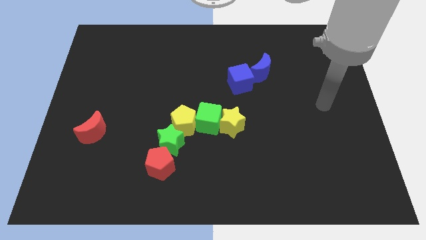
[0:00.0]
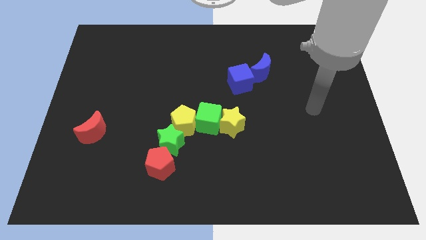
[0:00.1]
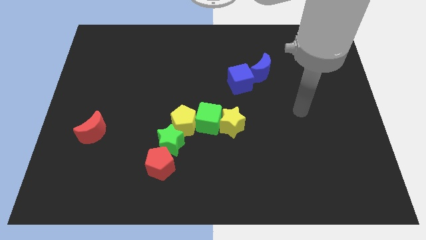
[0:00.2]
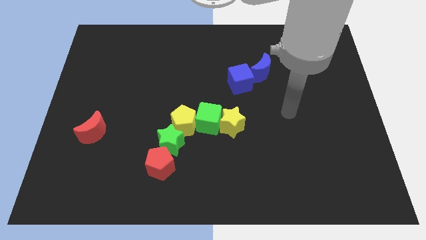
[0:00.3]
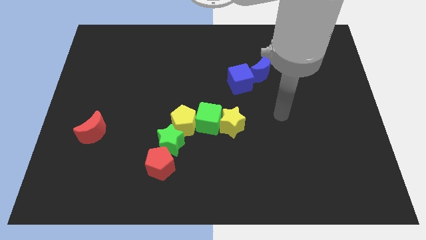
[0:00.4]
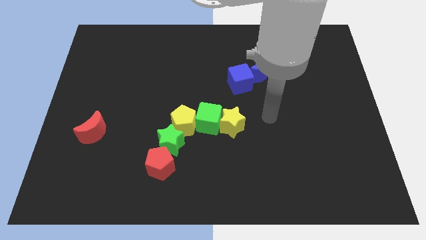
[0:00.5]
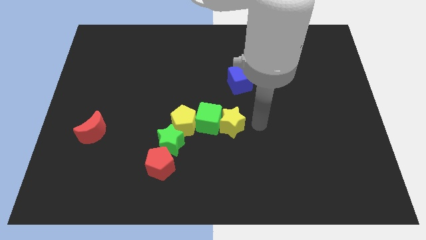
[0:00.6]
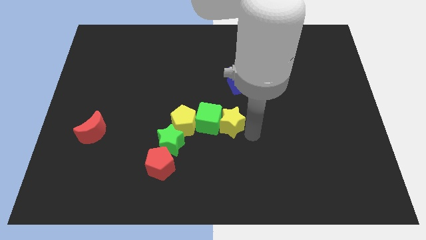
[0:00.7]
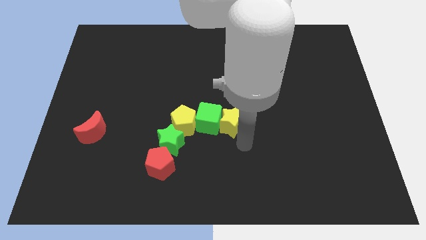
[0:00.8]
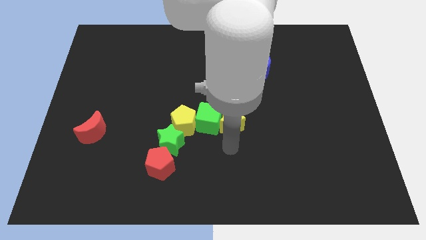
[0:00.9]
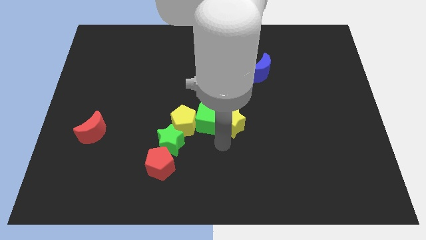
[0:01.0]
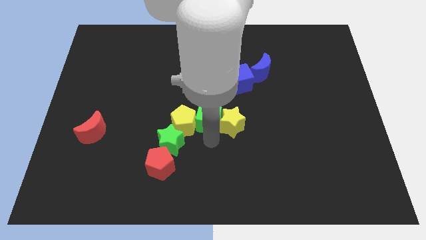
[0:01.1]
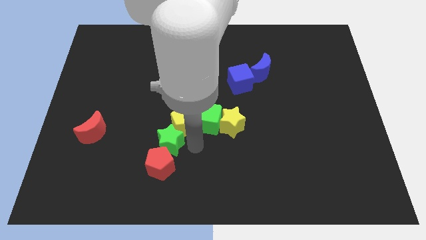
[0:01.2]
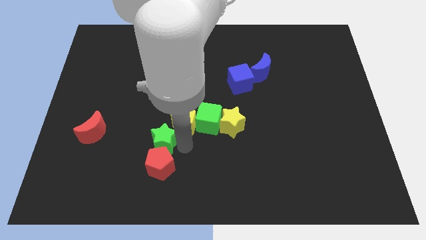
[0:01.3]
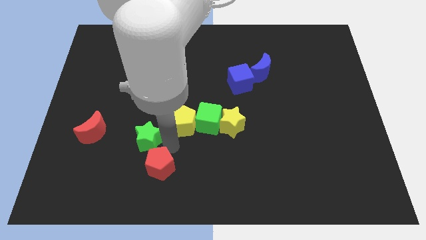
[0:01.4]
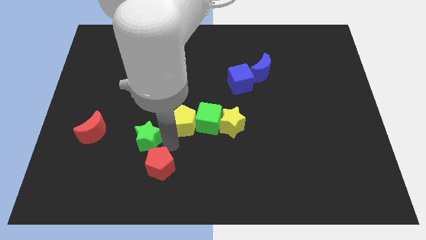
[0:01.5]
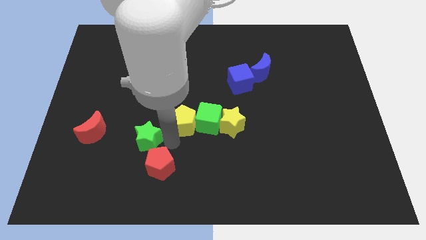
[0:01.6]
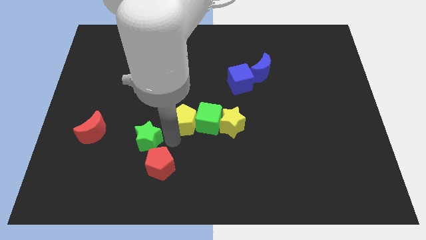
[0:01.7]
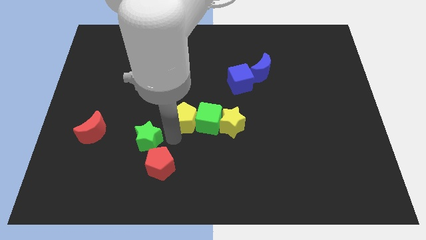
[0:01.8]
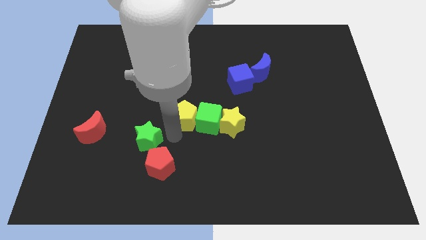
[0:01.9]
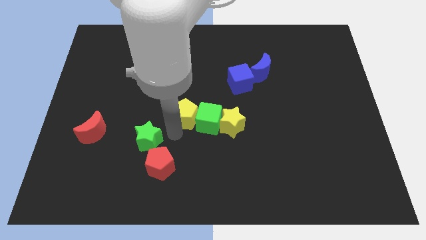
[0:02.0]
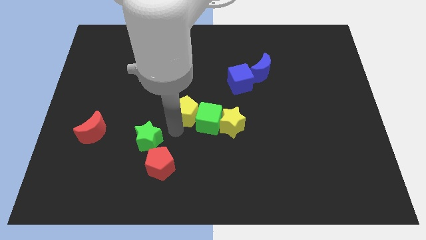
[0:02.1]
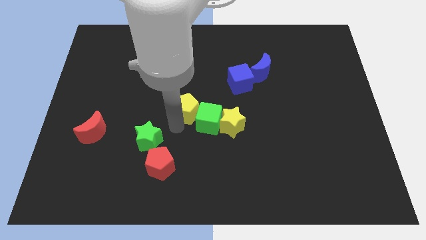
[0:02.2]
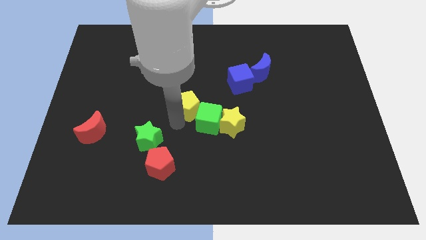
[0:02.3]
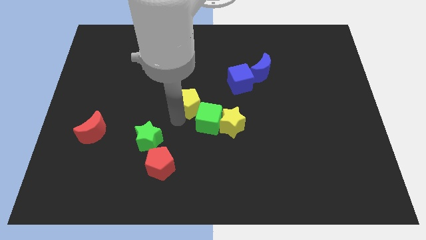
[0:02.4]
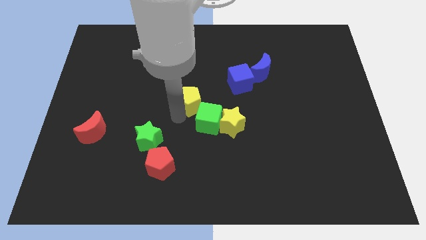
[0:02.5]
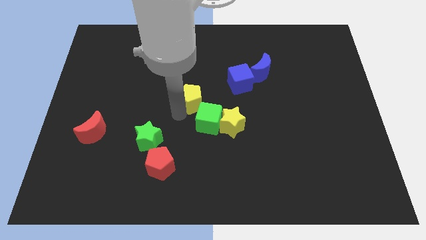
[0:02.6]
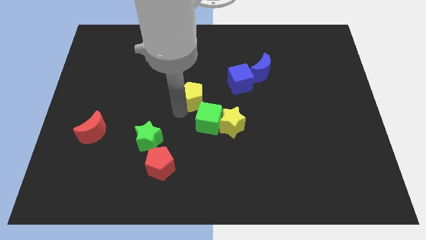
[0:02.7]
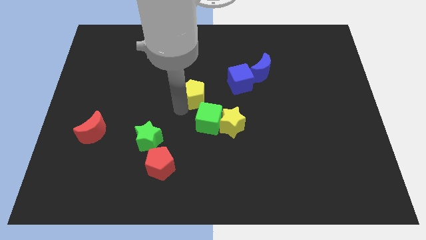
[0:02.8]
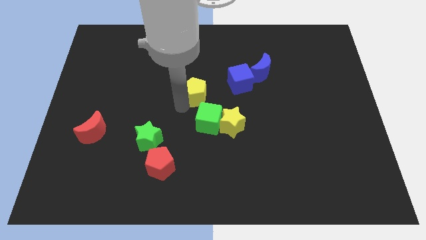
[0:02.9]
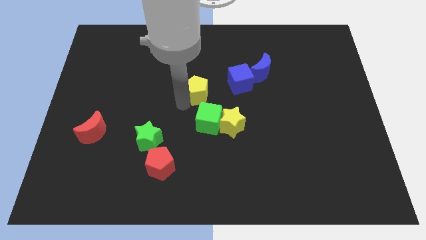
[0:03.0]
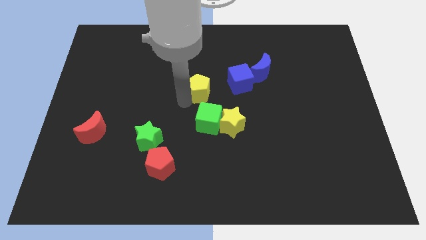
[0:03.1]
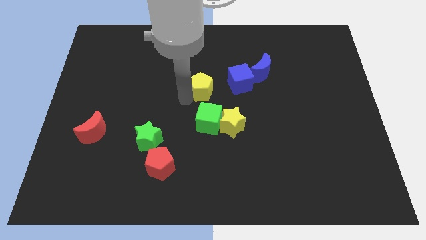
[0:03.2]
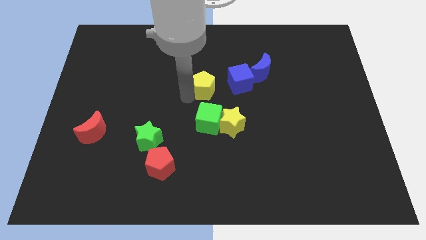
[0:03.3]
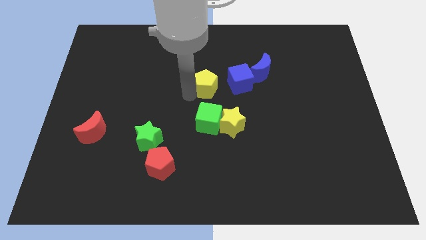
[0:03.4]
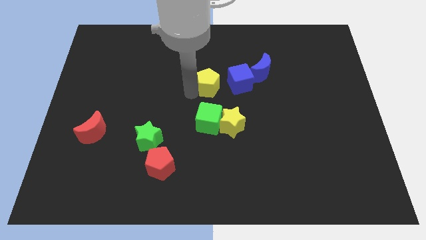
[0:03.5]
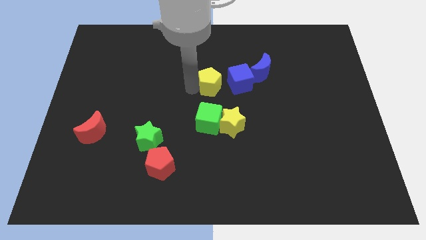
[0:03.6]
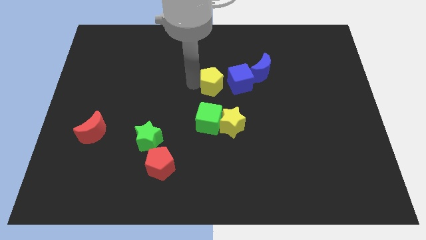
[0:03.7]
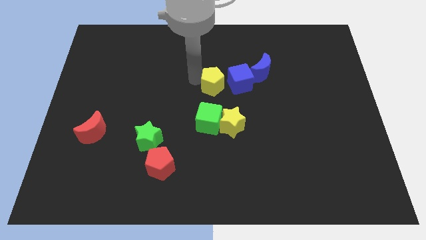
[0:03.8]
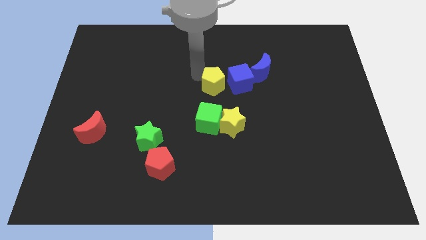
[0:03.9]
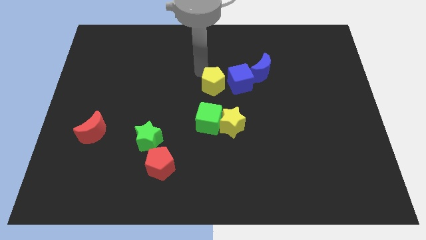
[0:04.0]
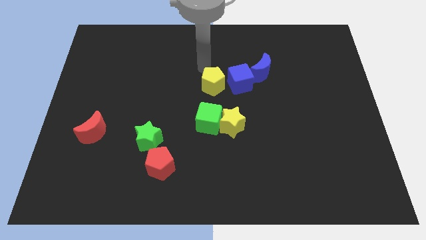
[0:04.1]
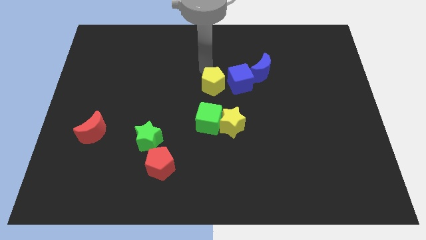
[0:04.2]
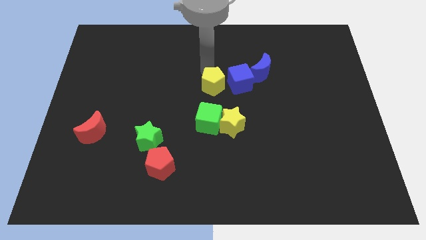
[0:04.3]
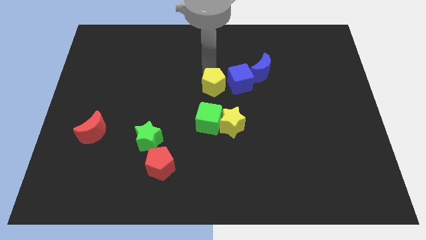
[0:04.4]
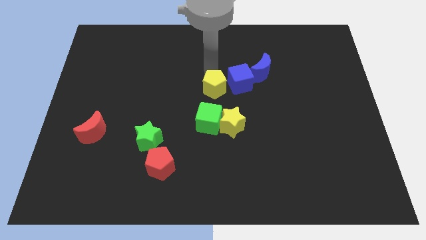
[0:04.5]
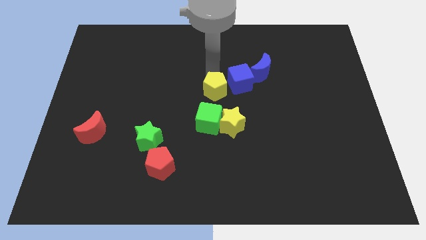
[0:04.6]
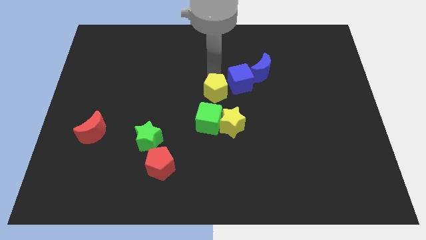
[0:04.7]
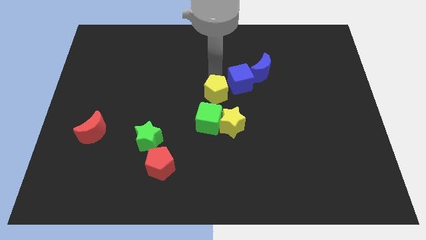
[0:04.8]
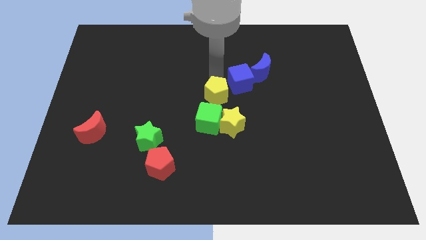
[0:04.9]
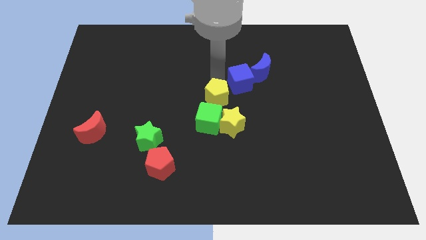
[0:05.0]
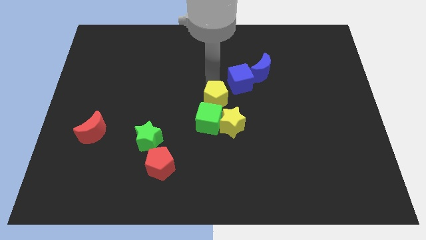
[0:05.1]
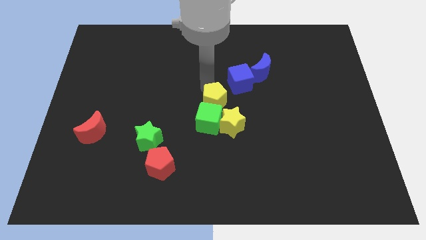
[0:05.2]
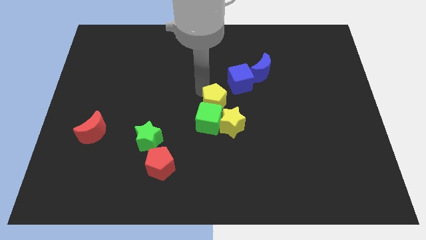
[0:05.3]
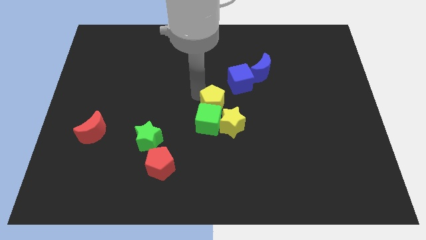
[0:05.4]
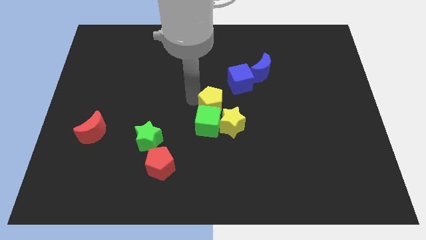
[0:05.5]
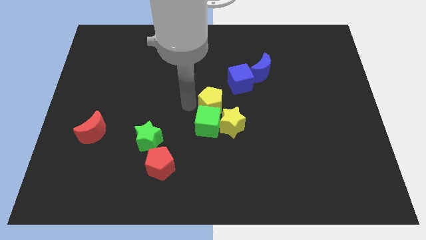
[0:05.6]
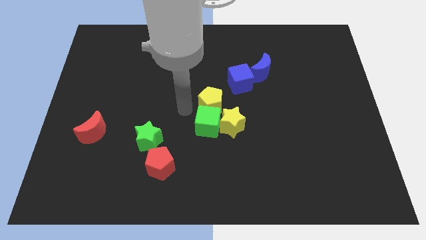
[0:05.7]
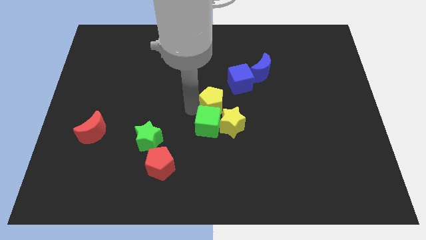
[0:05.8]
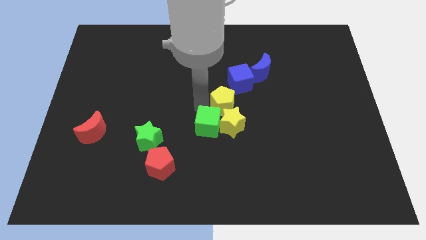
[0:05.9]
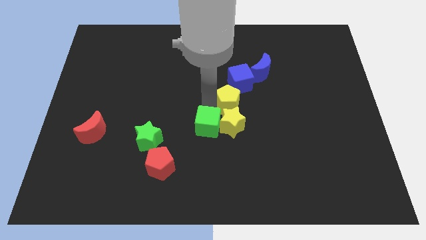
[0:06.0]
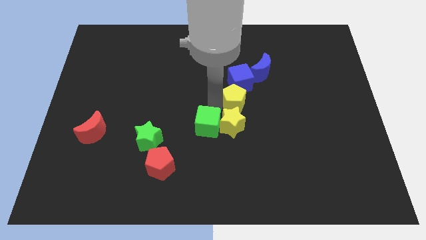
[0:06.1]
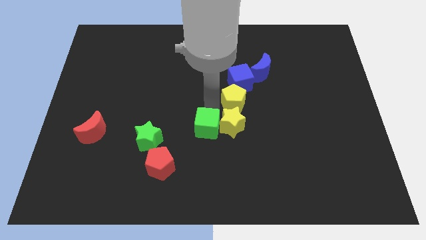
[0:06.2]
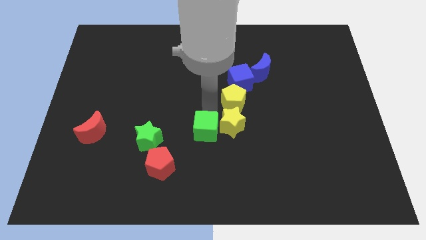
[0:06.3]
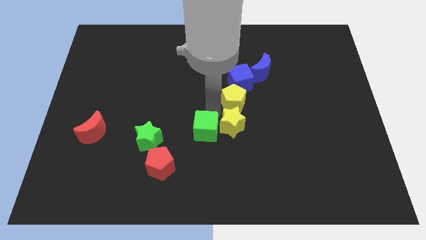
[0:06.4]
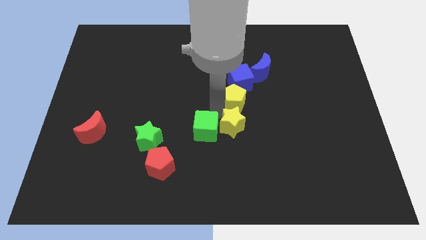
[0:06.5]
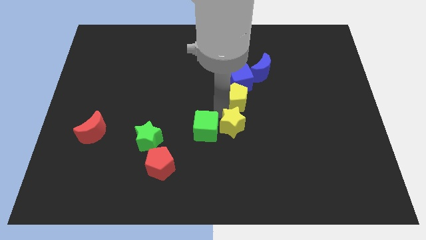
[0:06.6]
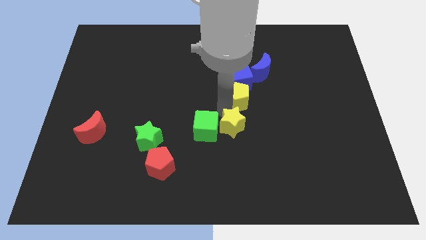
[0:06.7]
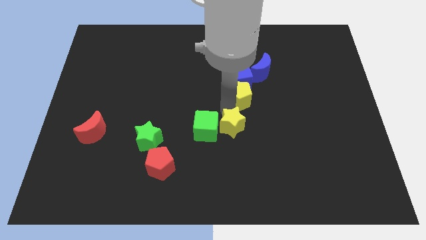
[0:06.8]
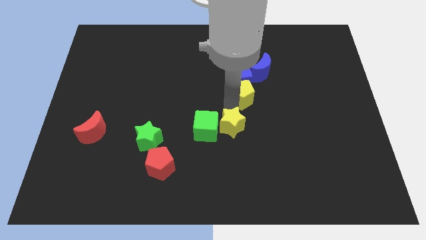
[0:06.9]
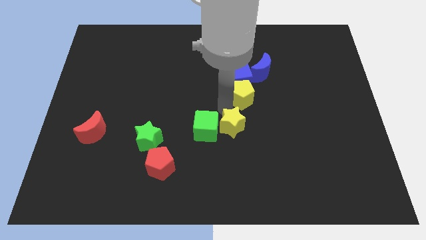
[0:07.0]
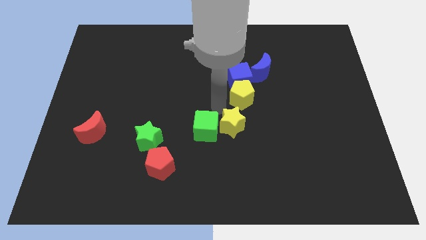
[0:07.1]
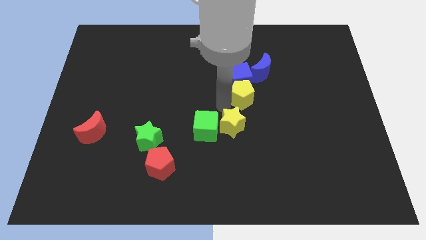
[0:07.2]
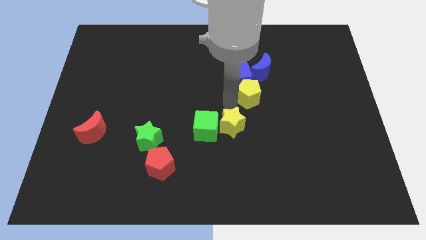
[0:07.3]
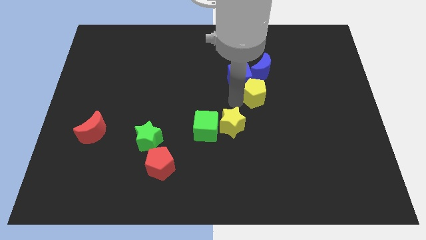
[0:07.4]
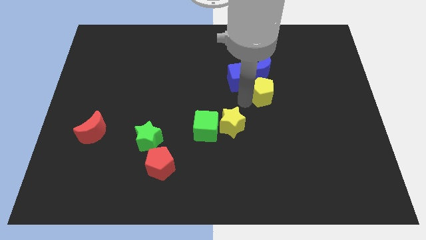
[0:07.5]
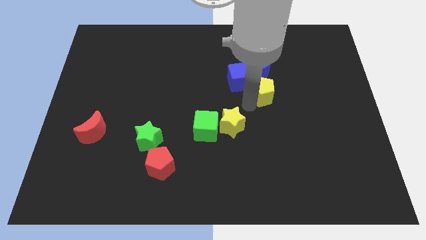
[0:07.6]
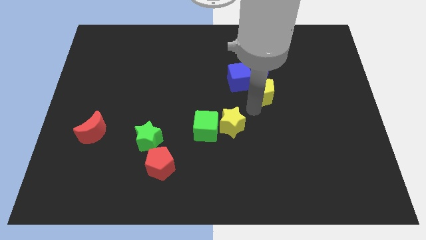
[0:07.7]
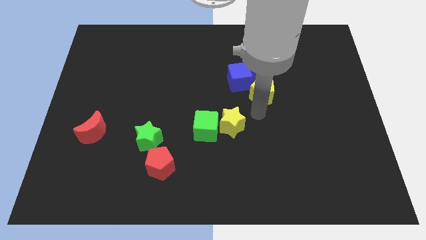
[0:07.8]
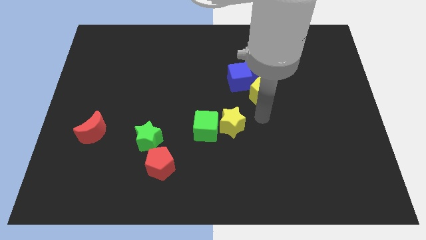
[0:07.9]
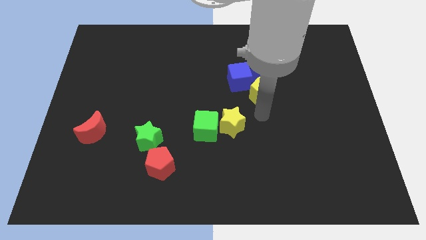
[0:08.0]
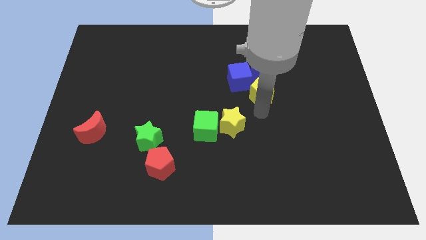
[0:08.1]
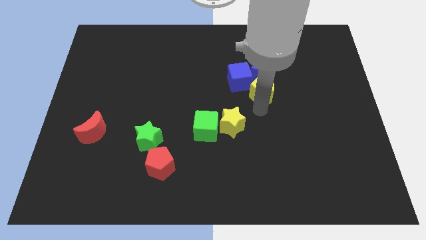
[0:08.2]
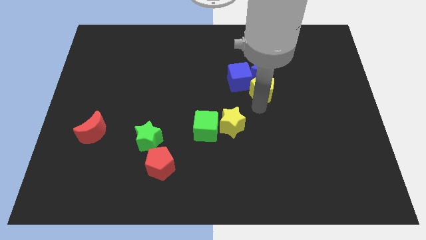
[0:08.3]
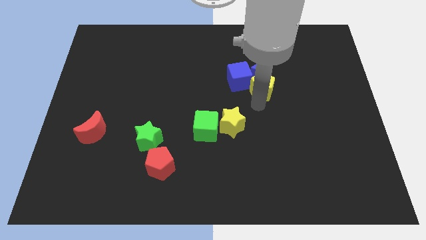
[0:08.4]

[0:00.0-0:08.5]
push the yellow pentagon close to the blue moon
